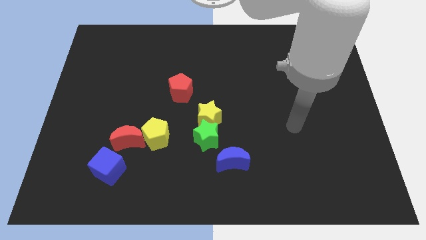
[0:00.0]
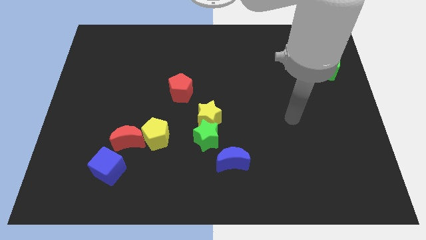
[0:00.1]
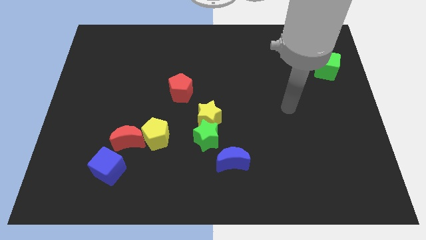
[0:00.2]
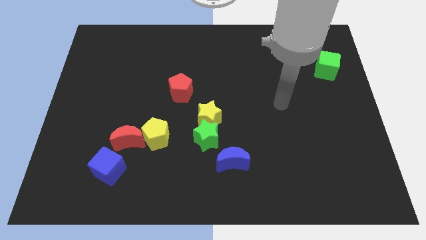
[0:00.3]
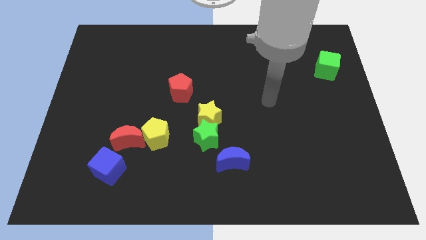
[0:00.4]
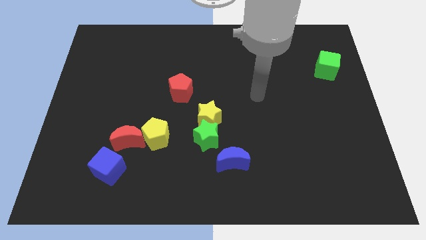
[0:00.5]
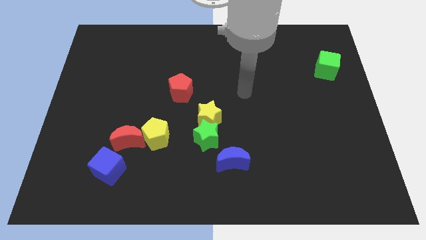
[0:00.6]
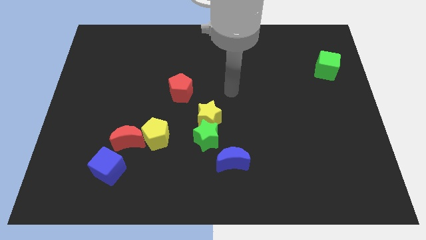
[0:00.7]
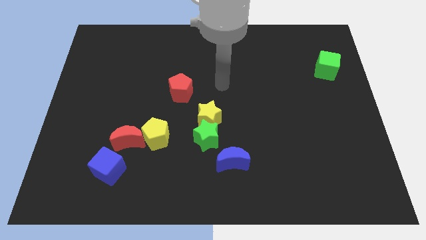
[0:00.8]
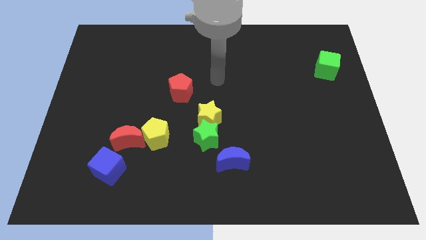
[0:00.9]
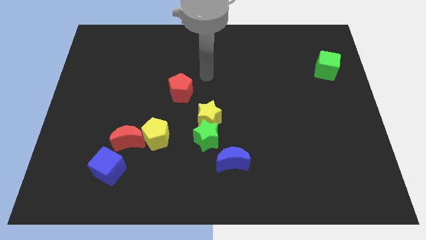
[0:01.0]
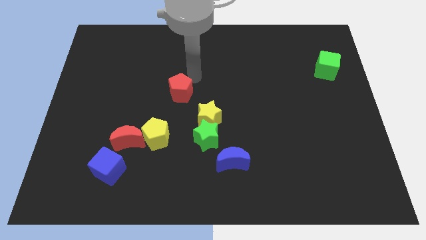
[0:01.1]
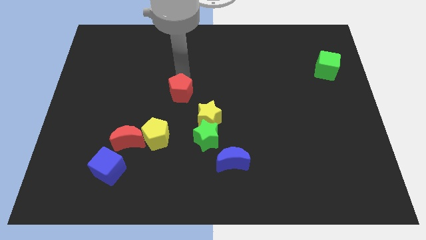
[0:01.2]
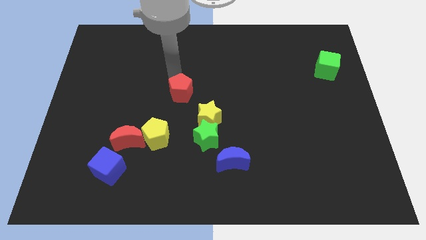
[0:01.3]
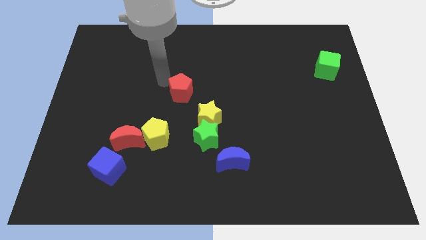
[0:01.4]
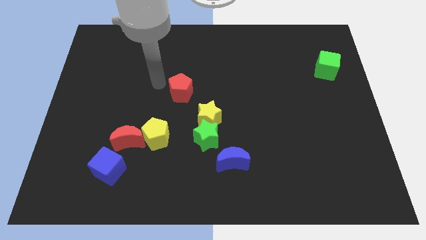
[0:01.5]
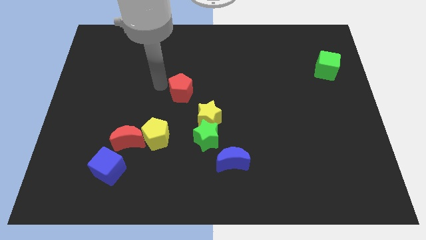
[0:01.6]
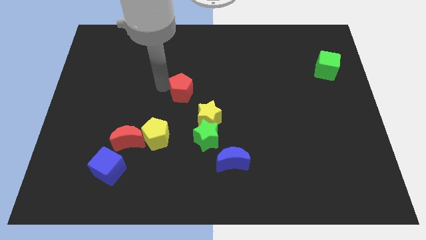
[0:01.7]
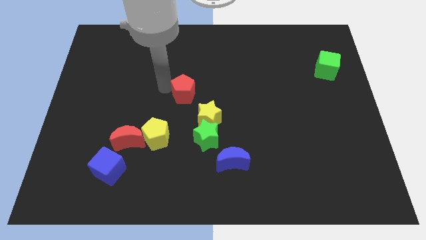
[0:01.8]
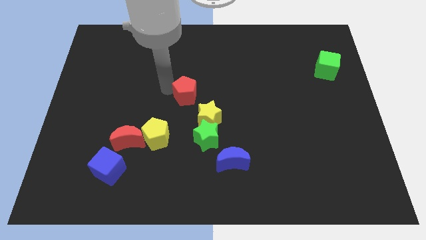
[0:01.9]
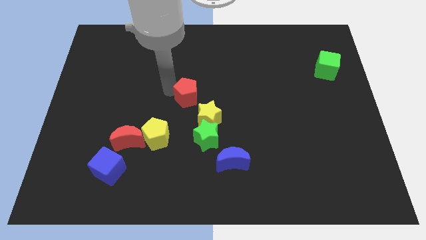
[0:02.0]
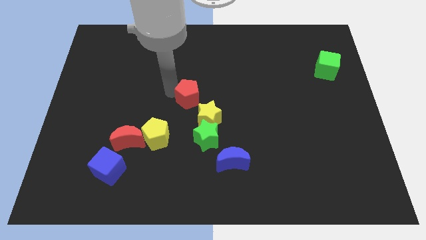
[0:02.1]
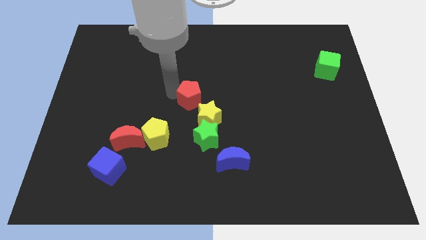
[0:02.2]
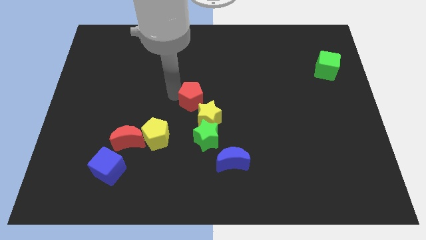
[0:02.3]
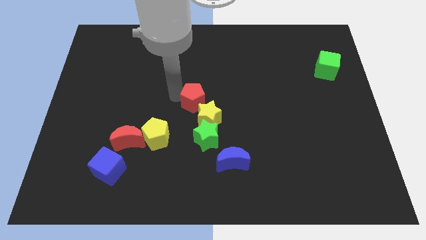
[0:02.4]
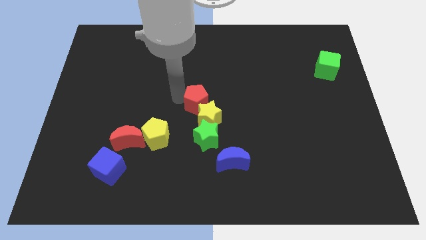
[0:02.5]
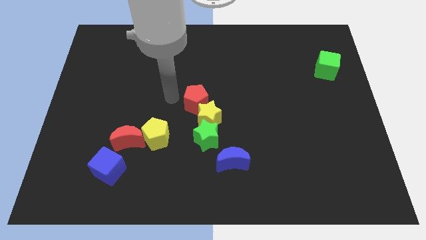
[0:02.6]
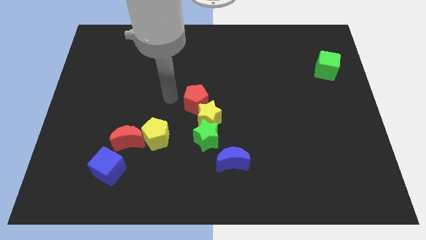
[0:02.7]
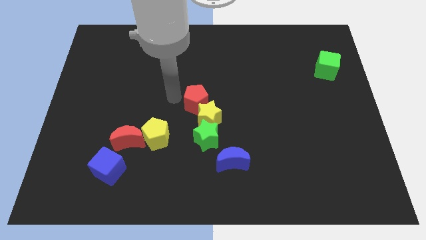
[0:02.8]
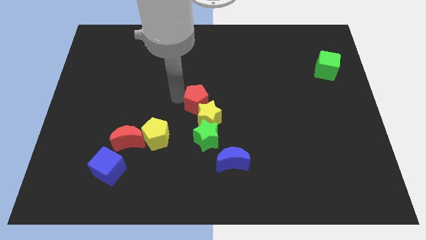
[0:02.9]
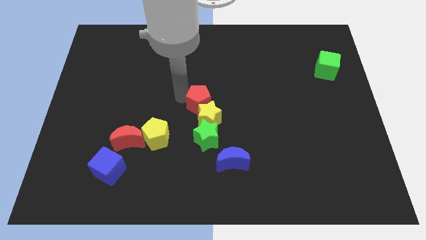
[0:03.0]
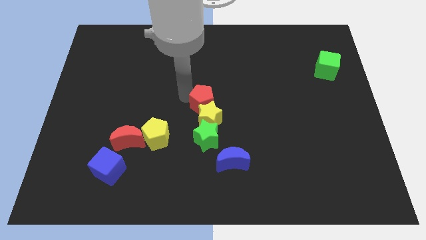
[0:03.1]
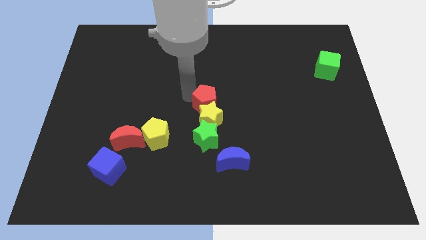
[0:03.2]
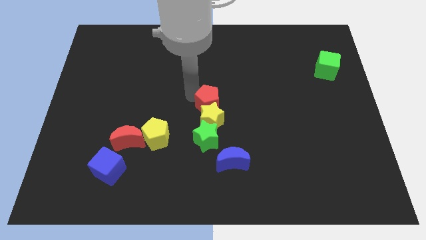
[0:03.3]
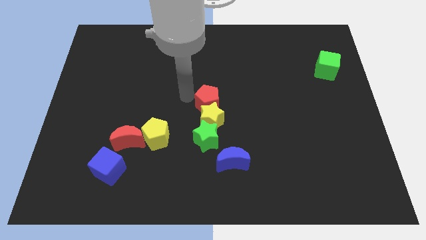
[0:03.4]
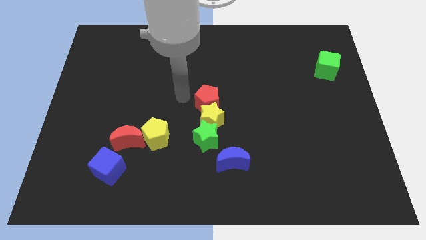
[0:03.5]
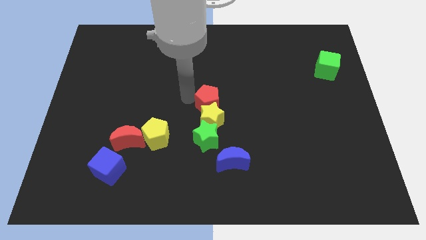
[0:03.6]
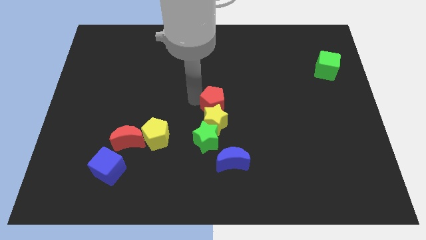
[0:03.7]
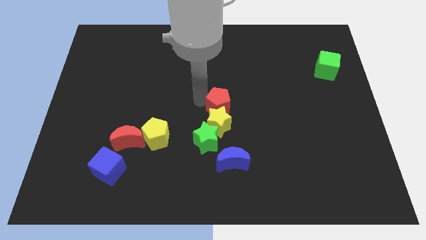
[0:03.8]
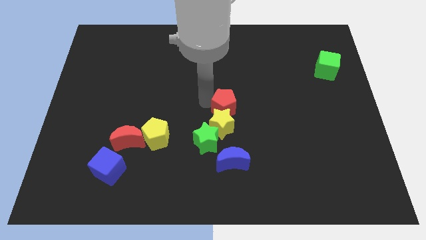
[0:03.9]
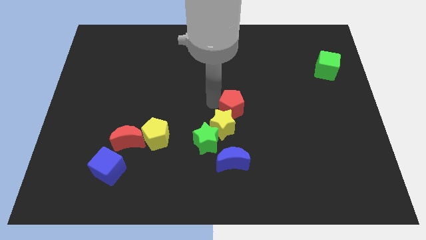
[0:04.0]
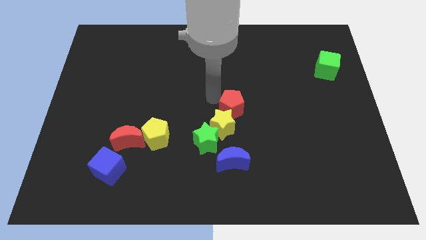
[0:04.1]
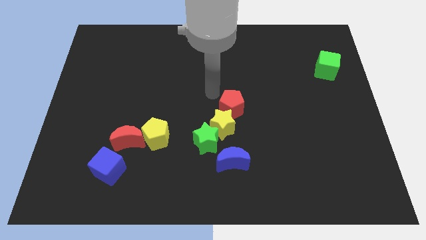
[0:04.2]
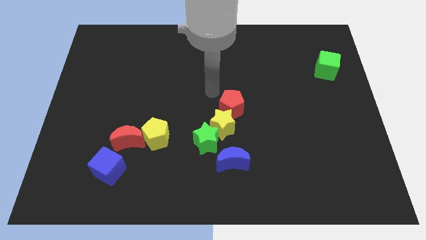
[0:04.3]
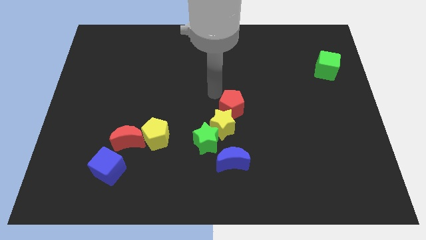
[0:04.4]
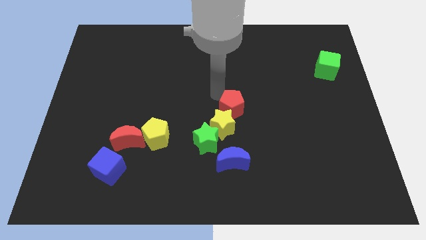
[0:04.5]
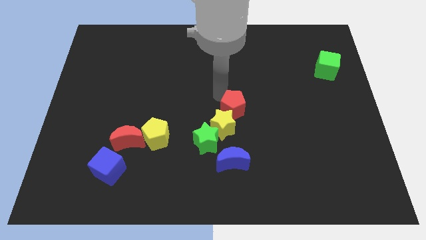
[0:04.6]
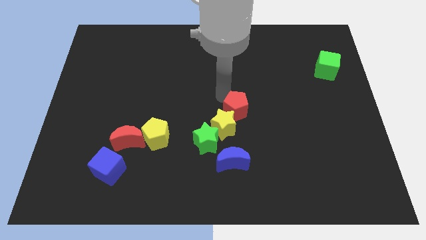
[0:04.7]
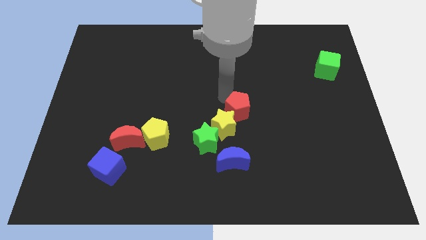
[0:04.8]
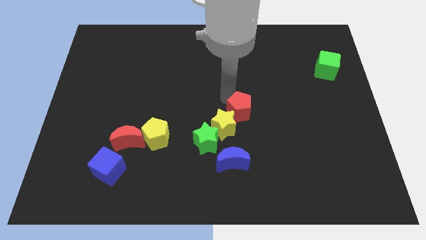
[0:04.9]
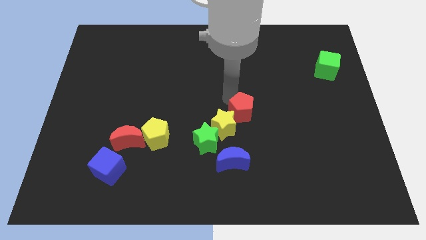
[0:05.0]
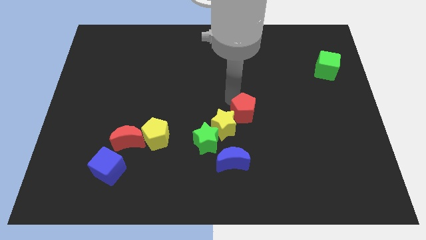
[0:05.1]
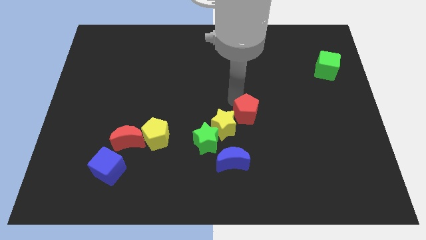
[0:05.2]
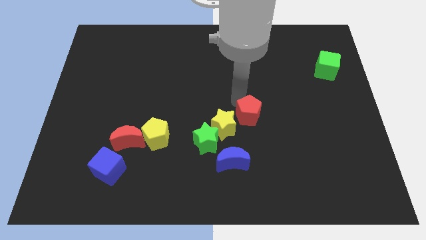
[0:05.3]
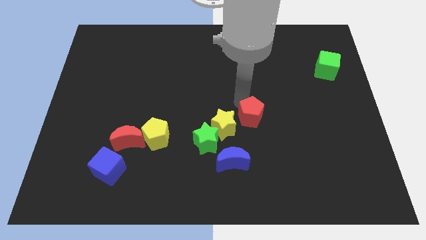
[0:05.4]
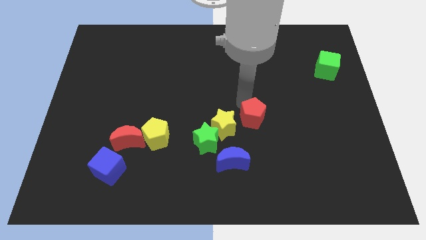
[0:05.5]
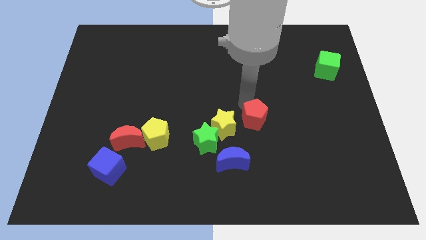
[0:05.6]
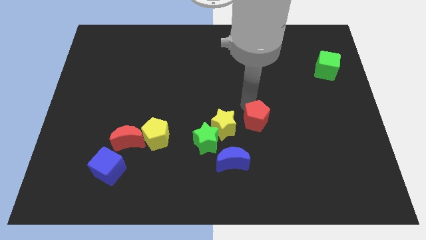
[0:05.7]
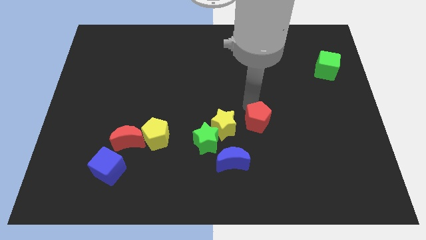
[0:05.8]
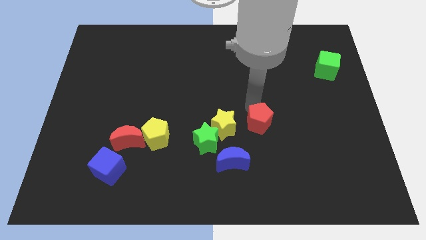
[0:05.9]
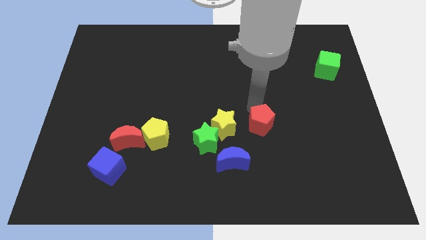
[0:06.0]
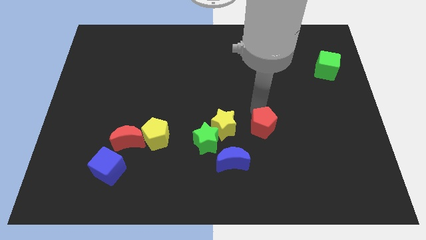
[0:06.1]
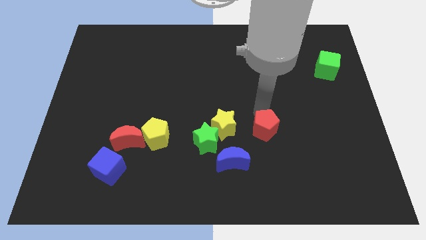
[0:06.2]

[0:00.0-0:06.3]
slide the red pentagon down and to the right diagonally

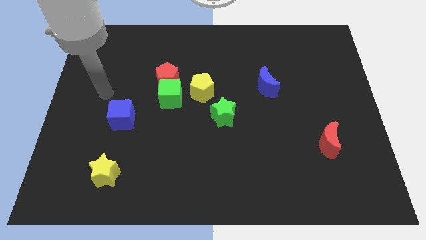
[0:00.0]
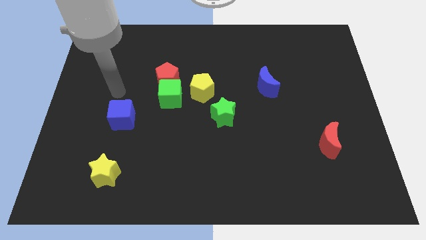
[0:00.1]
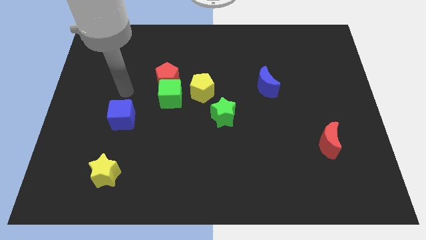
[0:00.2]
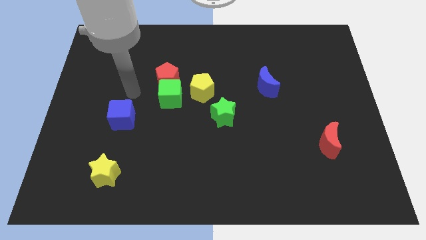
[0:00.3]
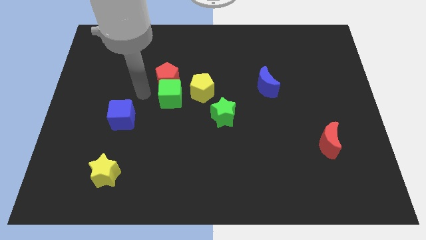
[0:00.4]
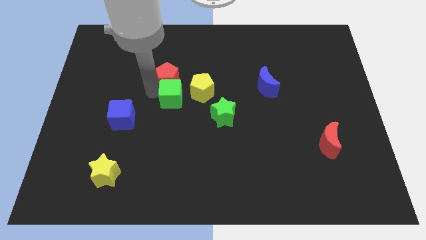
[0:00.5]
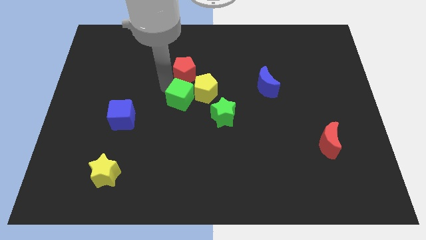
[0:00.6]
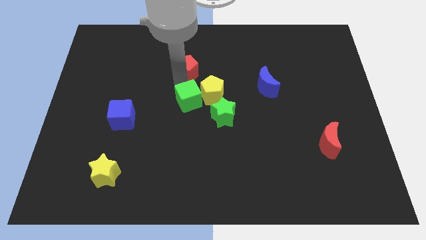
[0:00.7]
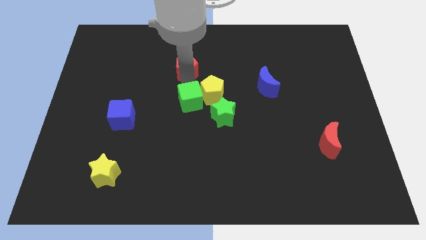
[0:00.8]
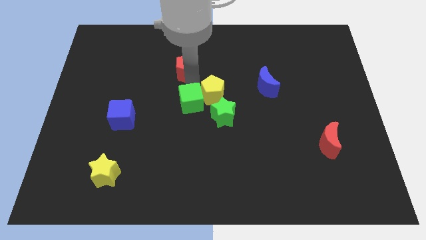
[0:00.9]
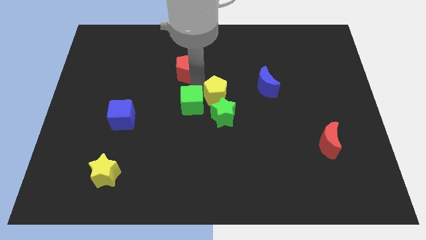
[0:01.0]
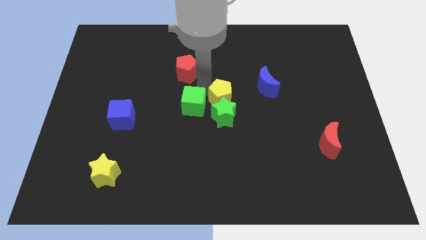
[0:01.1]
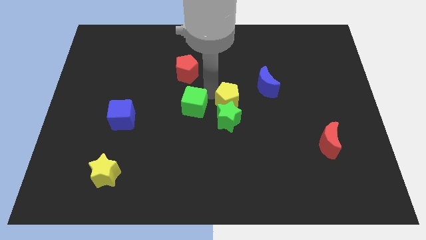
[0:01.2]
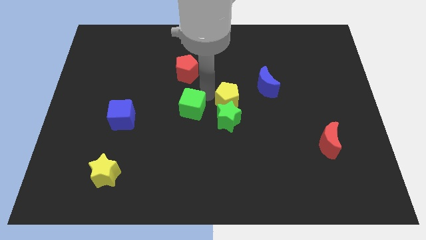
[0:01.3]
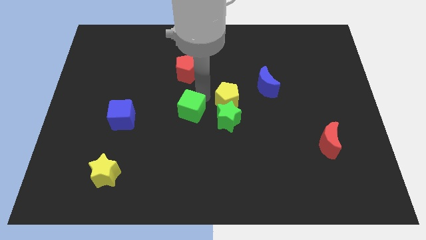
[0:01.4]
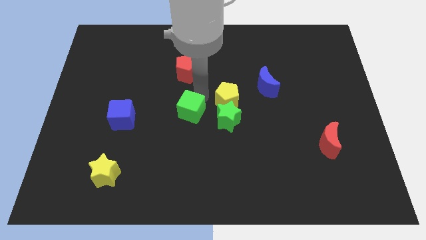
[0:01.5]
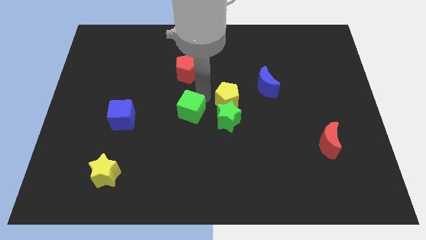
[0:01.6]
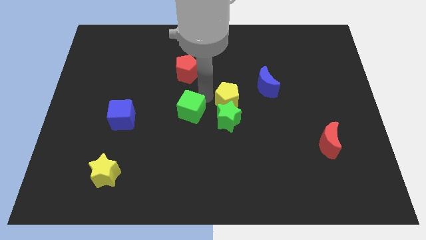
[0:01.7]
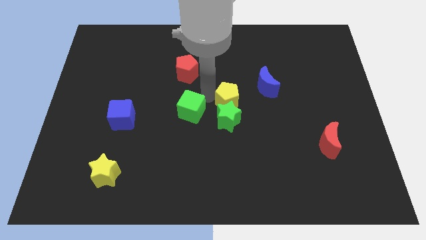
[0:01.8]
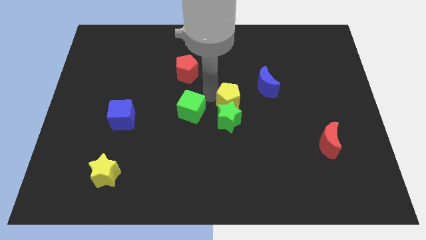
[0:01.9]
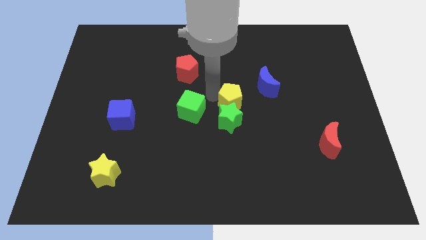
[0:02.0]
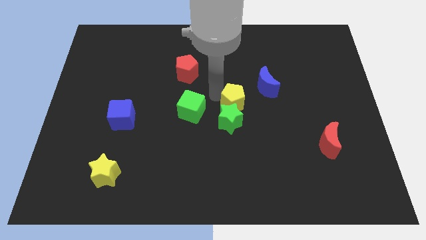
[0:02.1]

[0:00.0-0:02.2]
slightly move the yellow pentagon to the right
